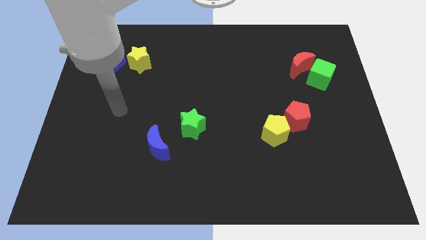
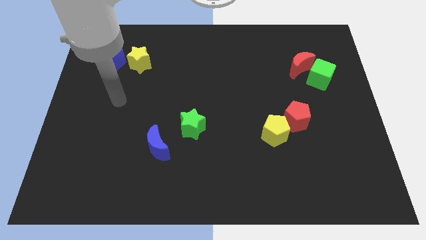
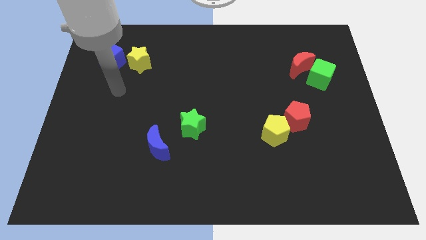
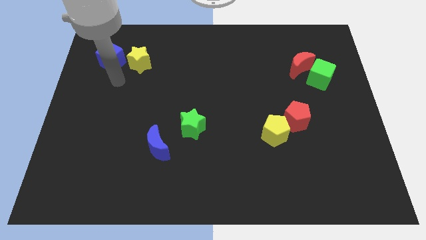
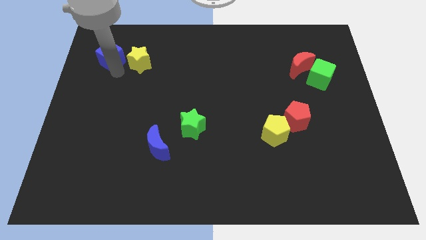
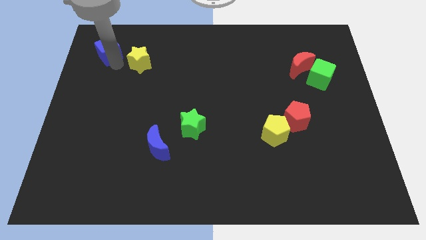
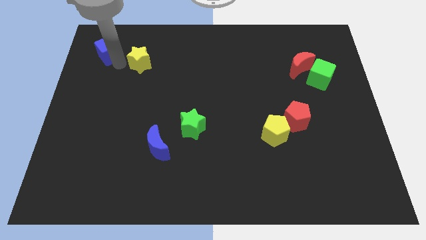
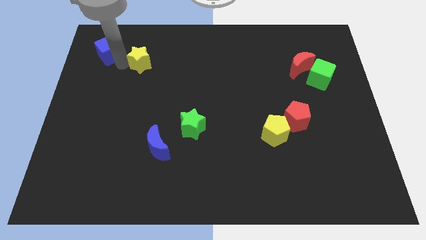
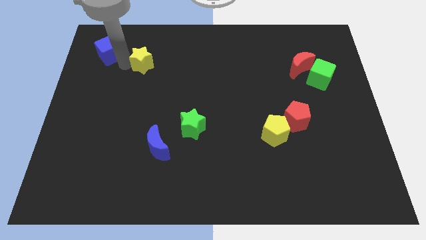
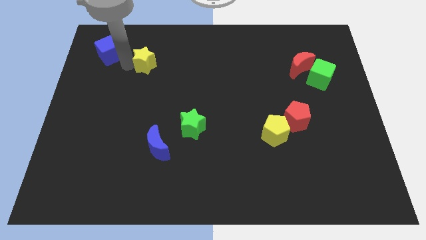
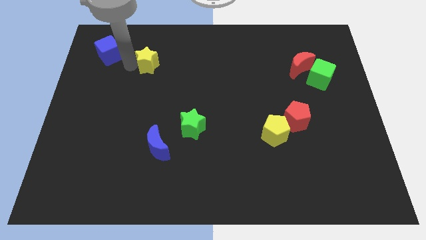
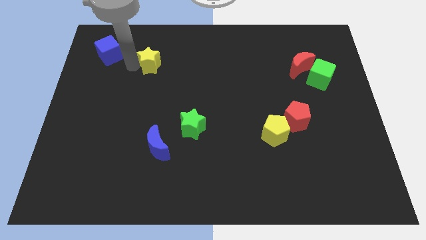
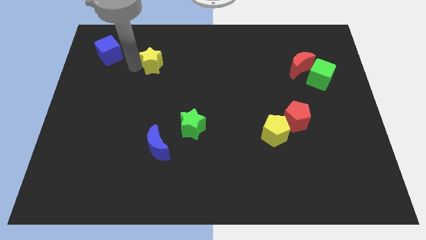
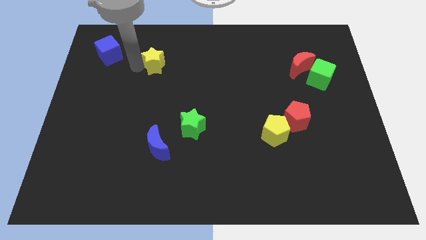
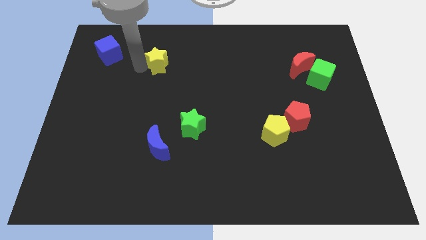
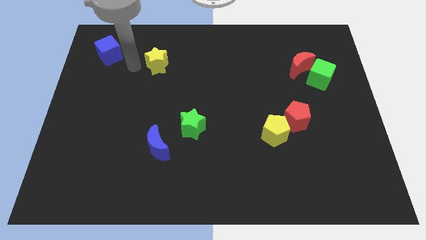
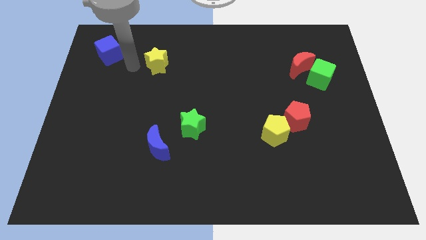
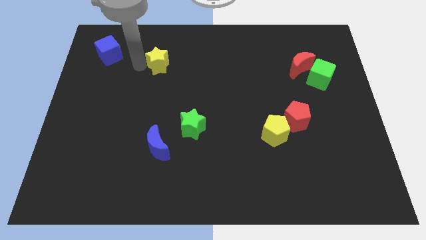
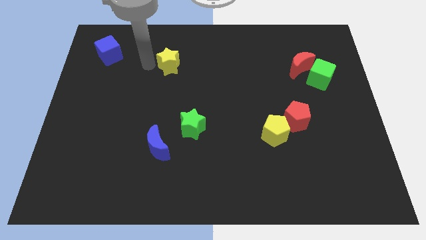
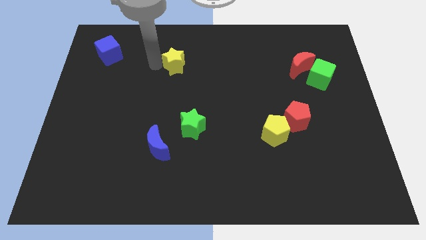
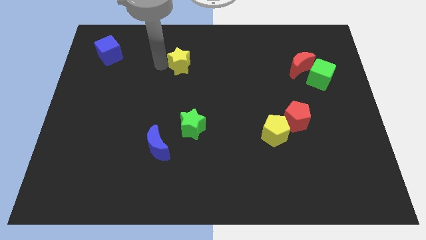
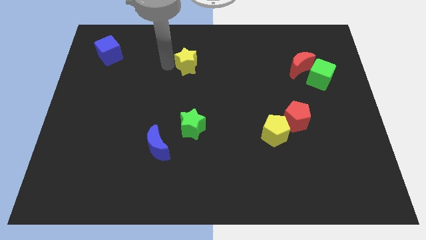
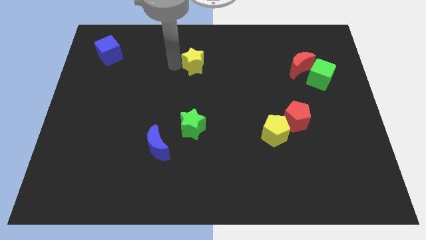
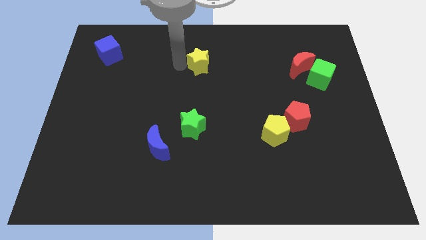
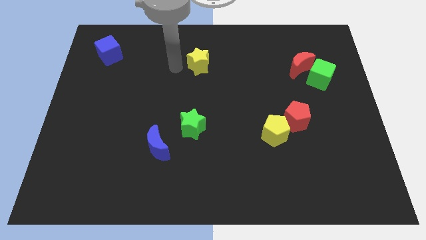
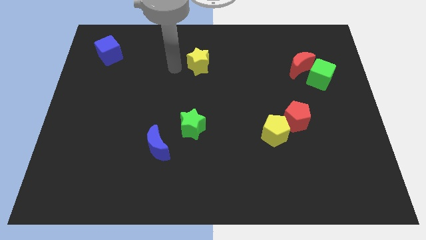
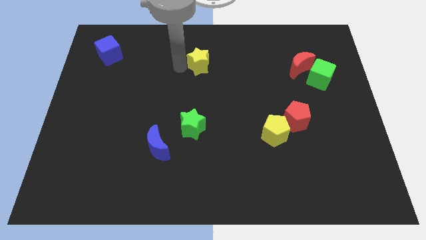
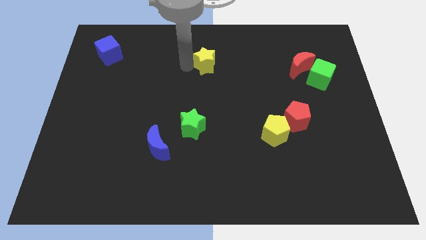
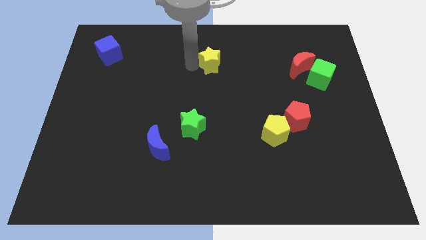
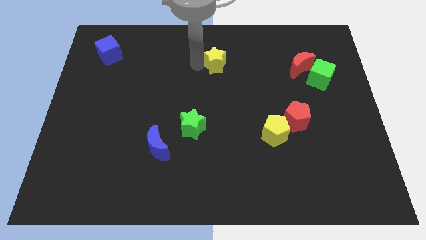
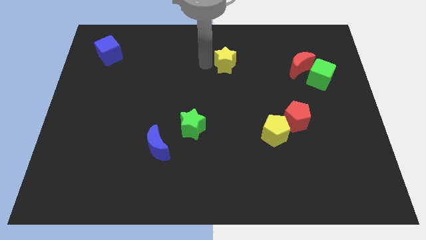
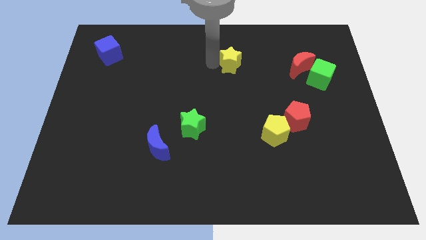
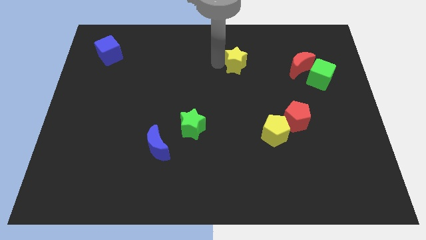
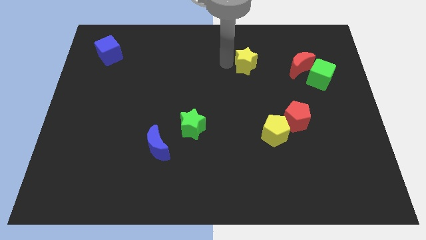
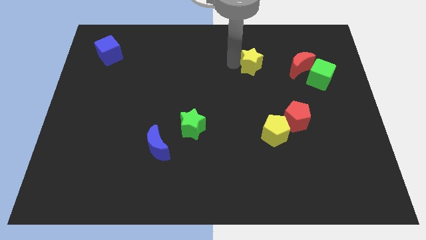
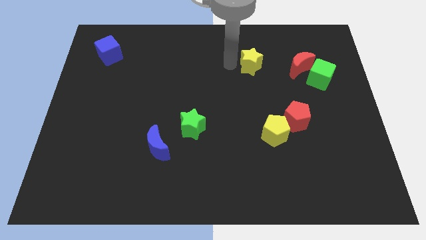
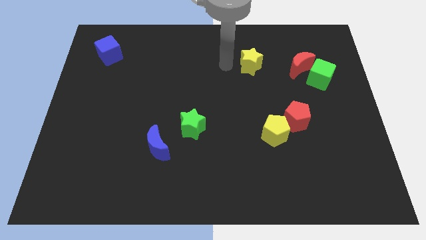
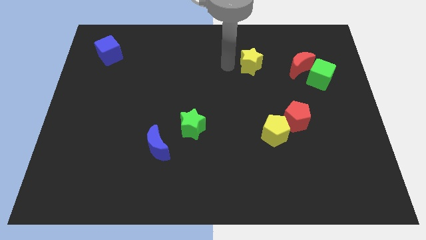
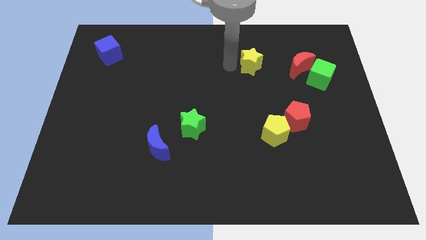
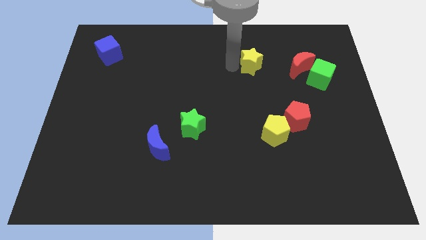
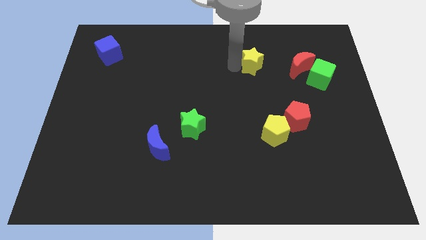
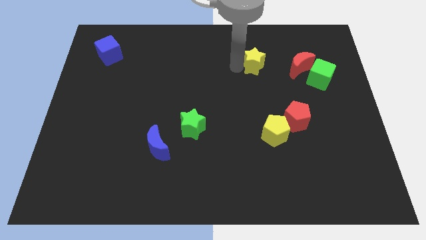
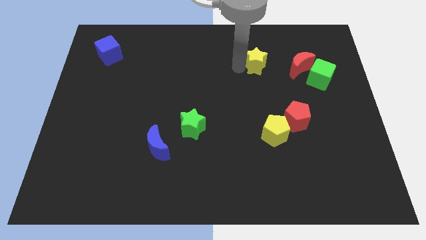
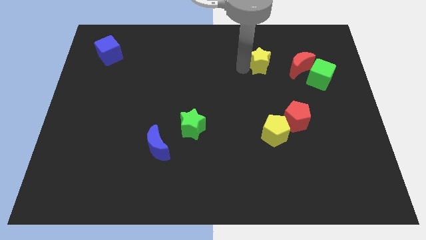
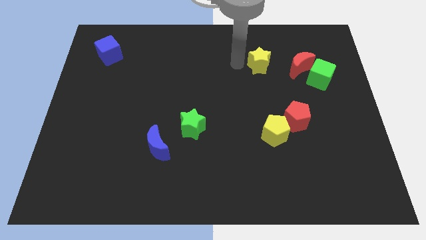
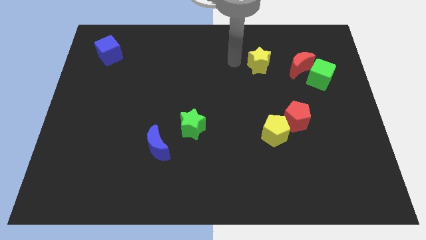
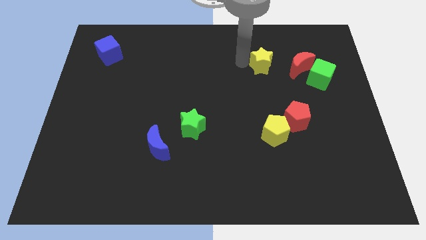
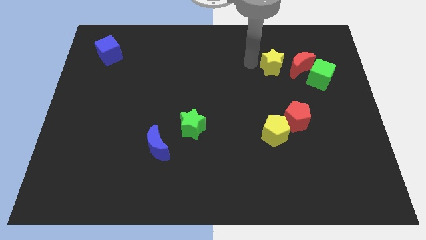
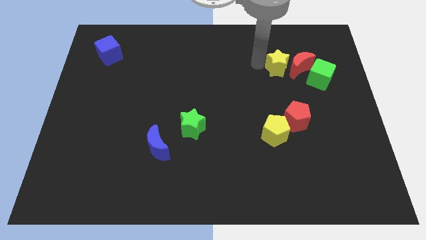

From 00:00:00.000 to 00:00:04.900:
slide the yellow star towards the red moon

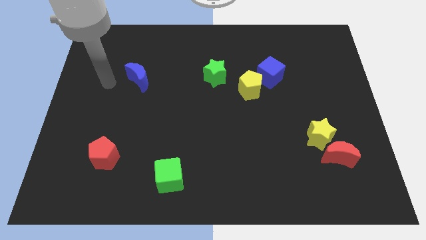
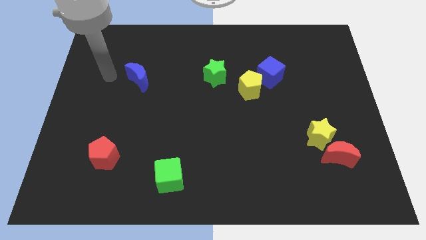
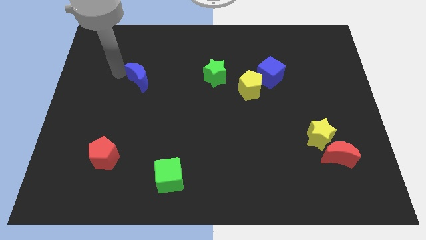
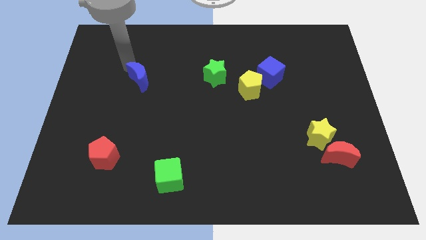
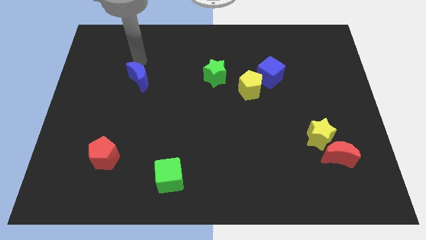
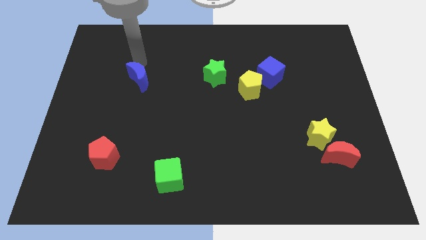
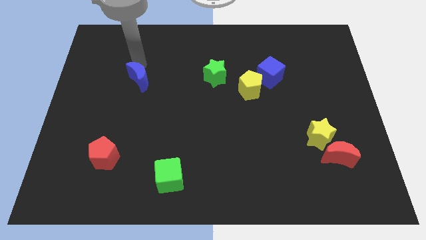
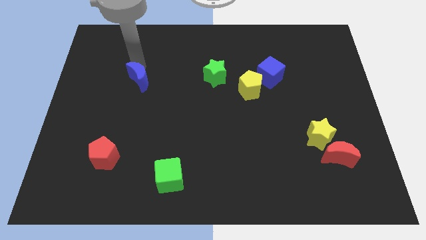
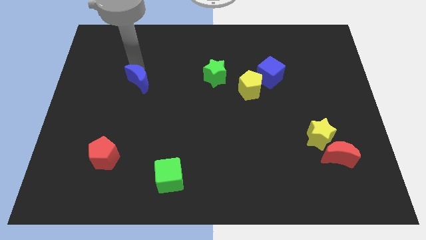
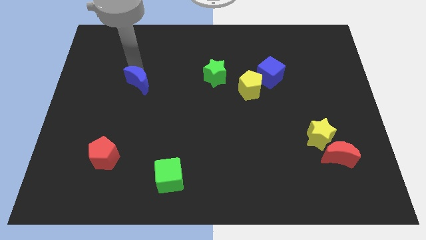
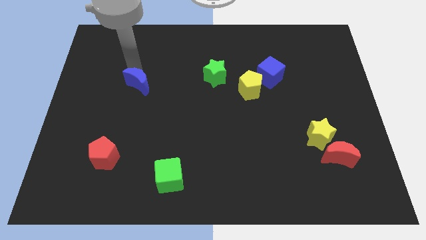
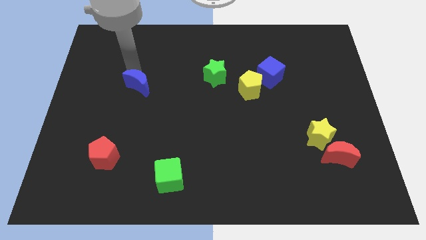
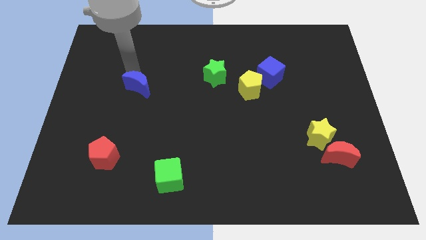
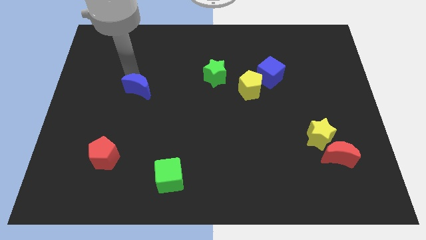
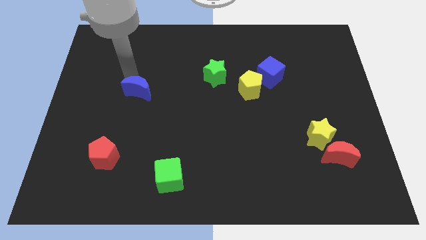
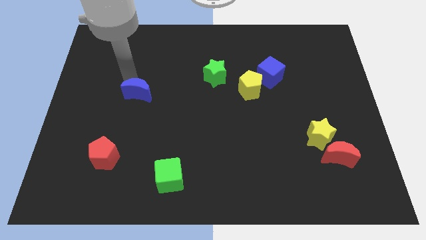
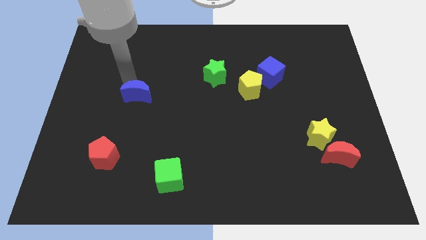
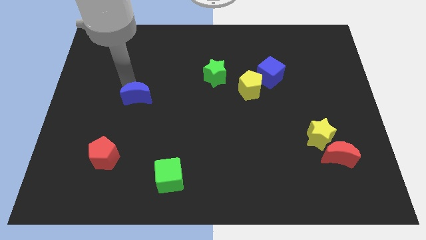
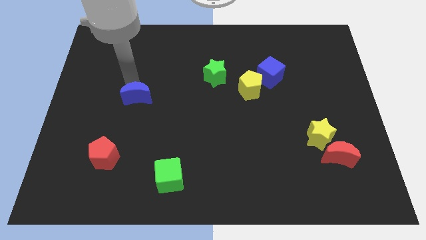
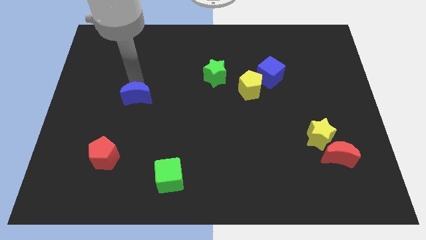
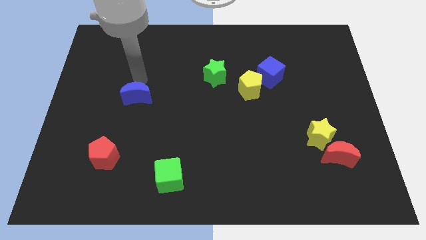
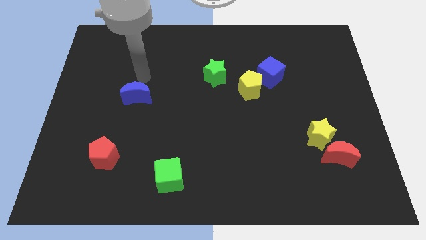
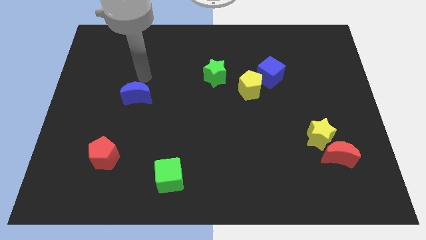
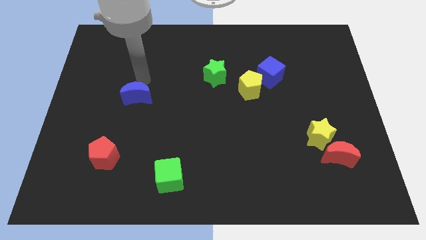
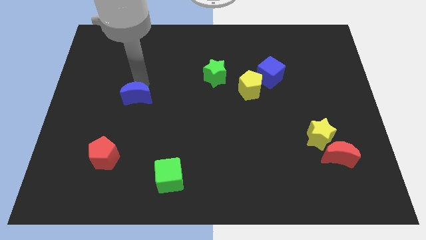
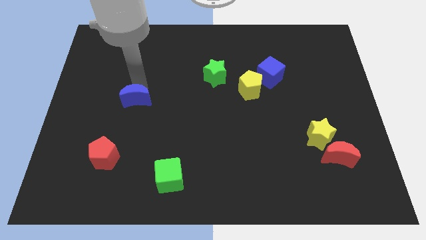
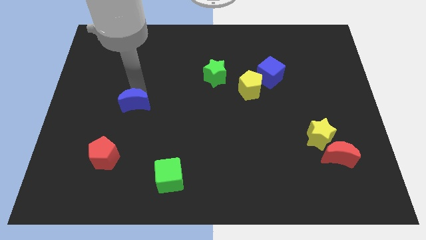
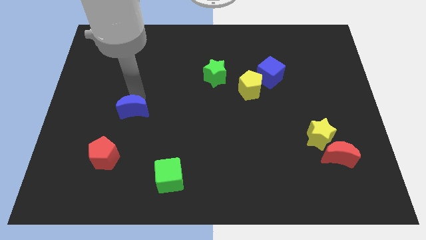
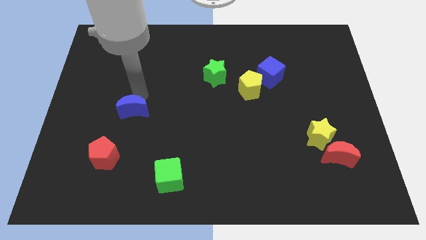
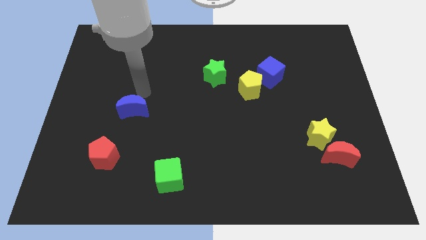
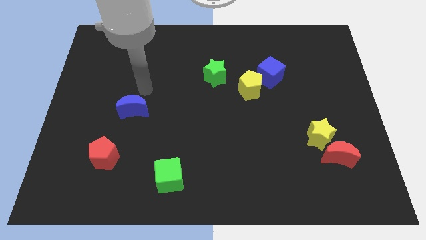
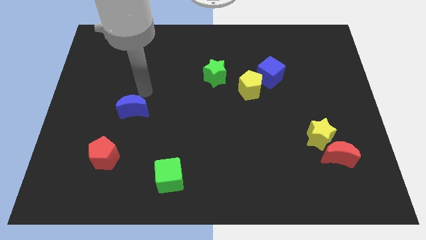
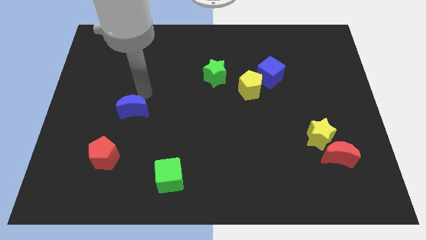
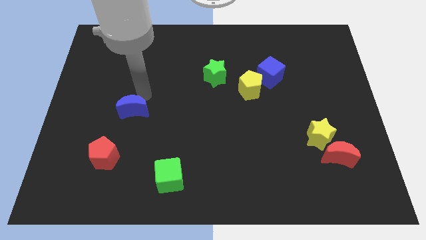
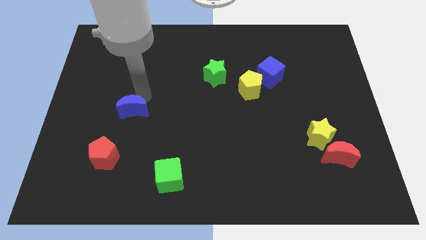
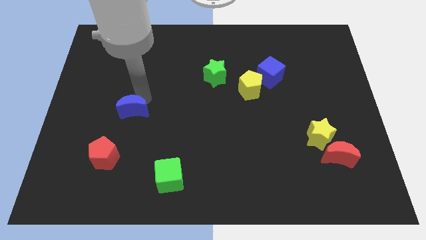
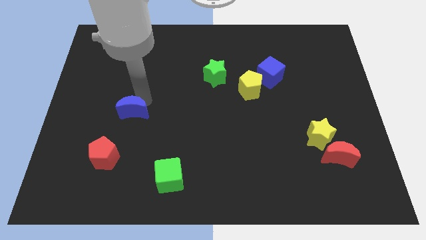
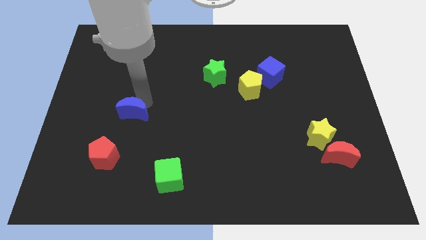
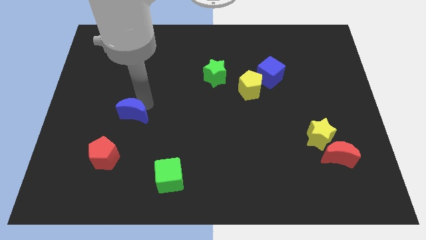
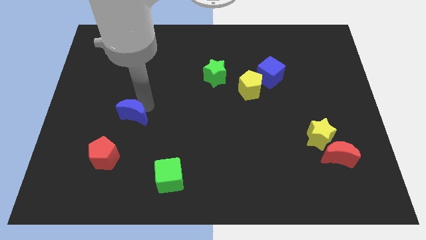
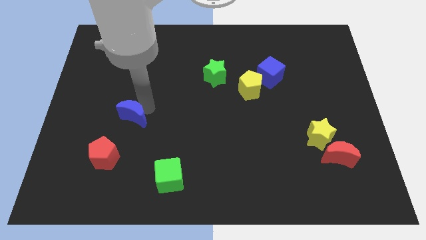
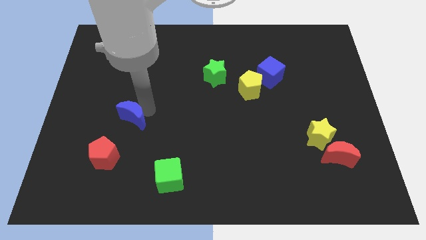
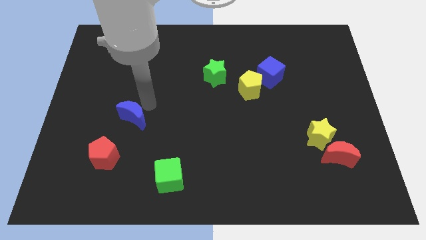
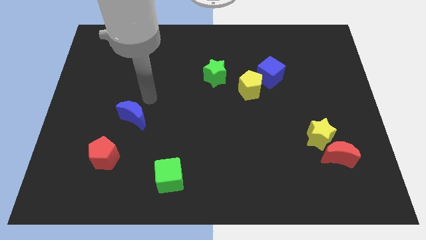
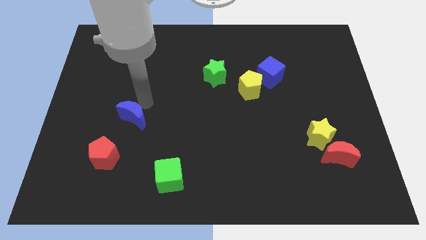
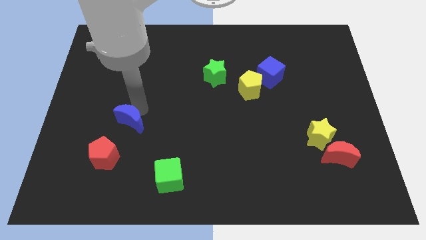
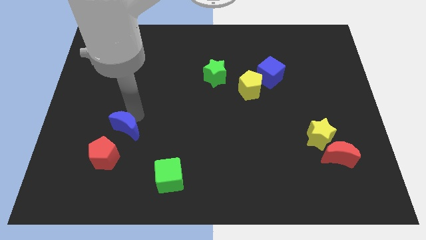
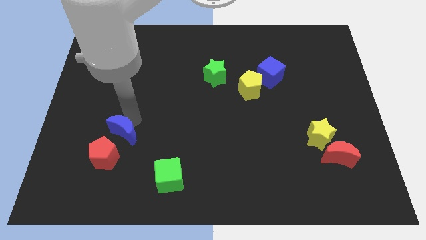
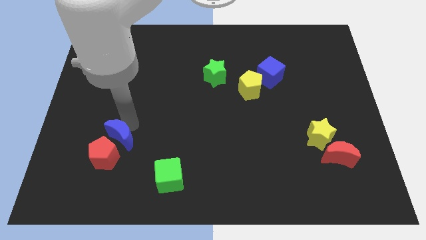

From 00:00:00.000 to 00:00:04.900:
put the blue moon next to the red pentagon
